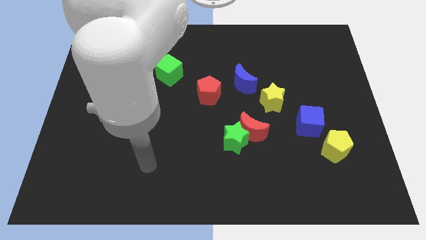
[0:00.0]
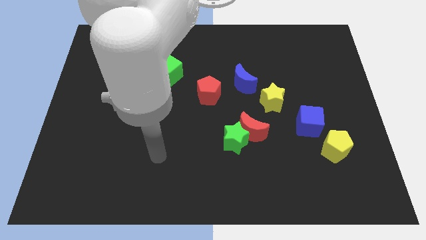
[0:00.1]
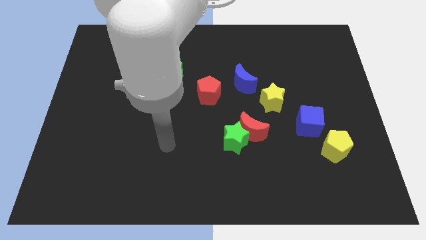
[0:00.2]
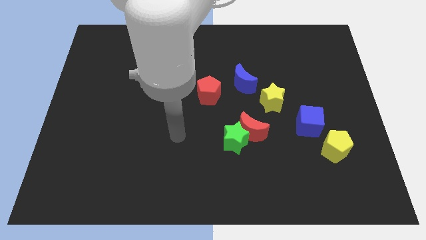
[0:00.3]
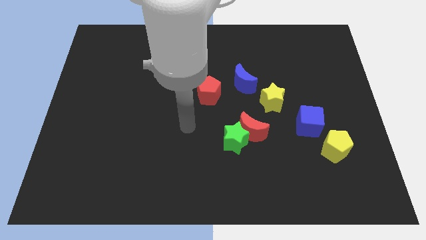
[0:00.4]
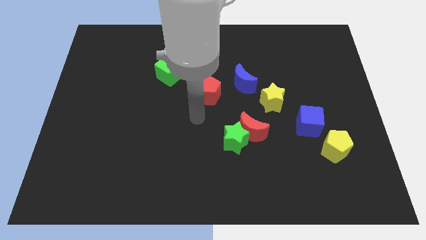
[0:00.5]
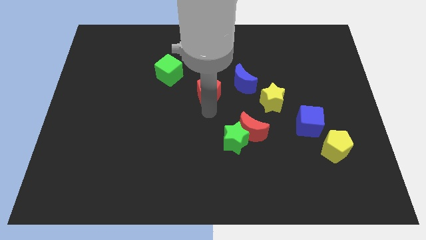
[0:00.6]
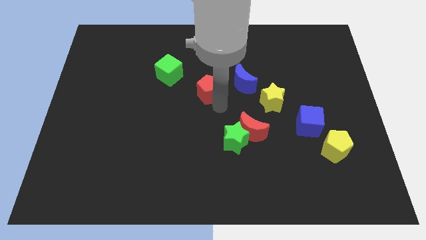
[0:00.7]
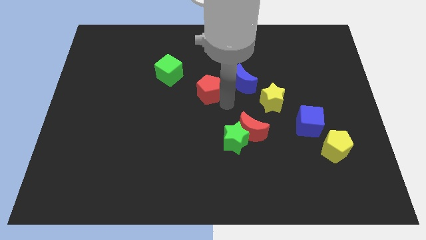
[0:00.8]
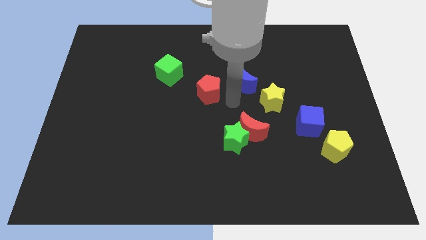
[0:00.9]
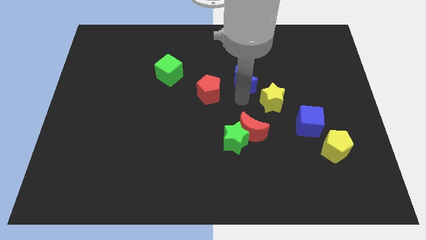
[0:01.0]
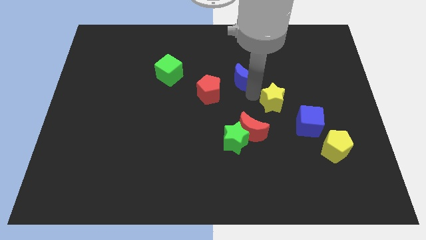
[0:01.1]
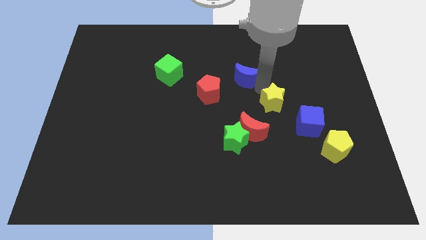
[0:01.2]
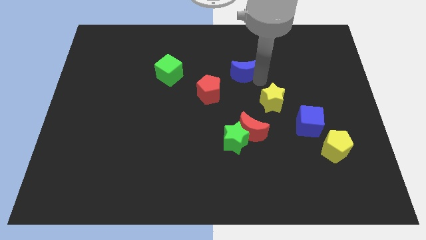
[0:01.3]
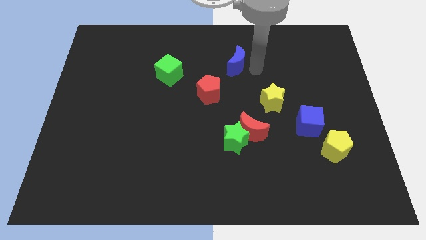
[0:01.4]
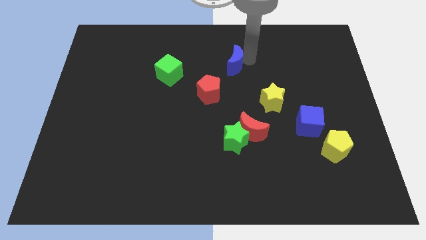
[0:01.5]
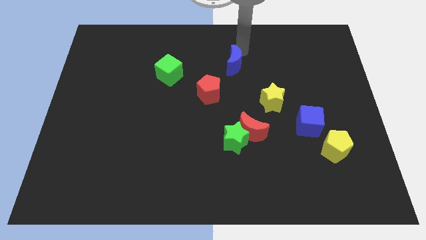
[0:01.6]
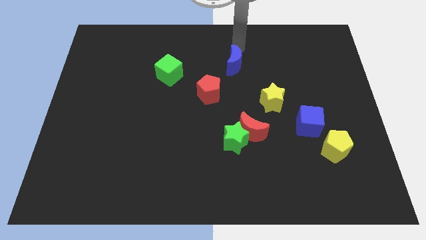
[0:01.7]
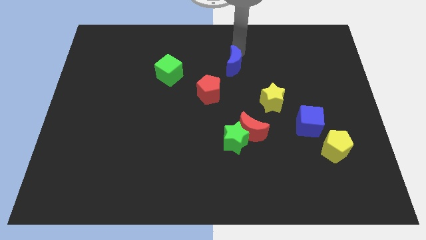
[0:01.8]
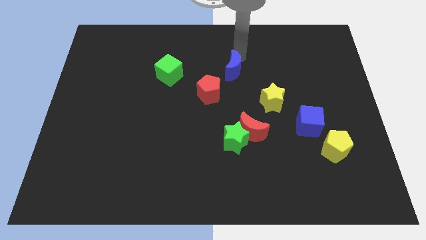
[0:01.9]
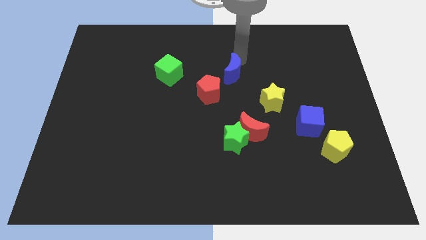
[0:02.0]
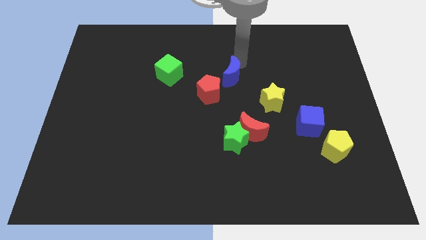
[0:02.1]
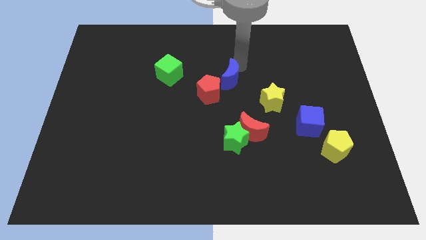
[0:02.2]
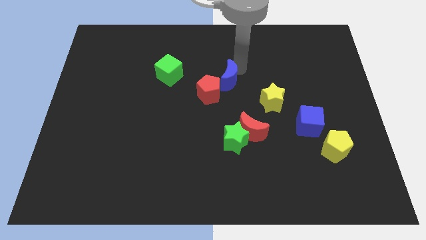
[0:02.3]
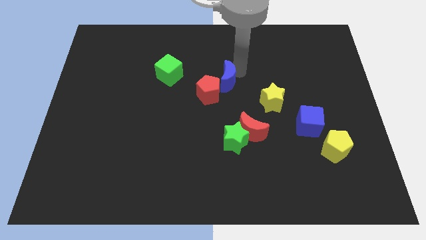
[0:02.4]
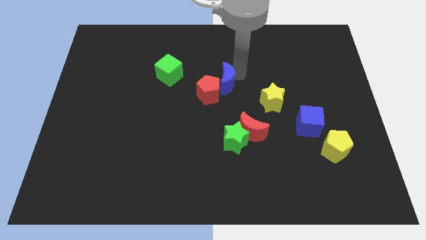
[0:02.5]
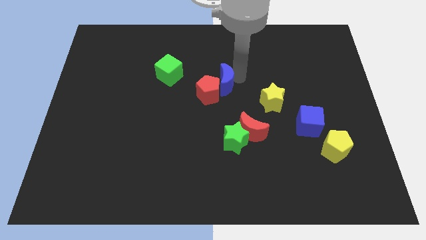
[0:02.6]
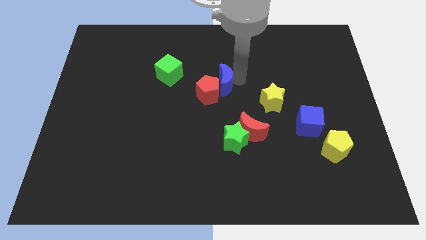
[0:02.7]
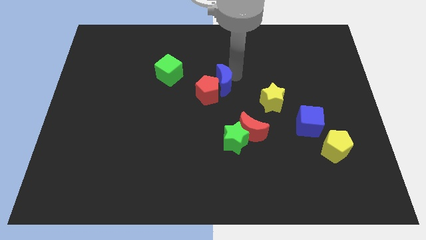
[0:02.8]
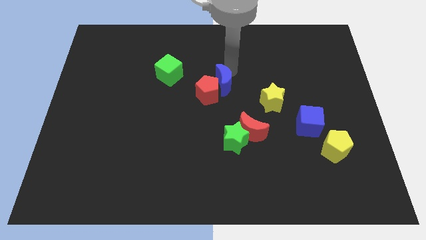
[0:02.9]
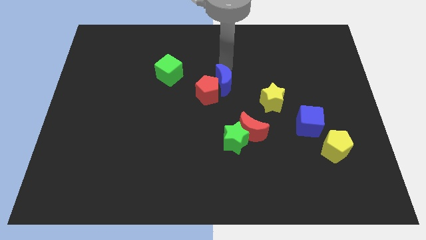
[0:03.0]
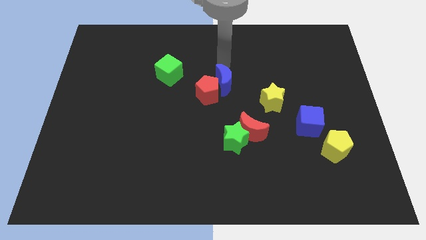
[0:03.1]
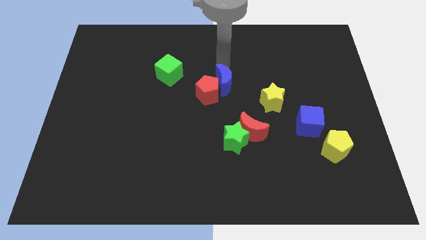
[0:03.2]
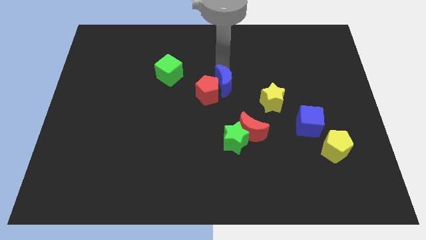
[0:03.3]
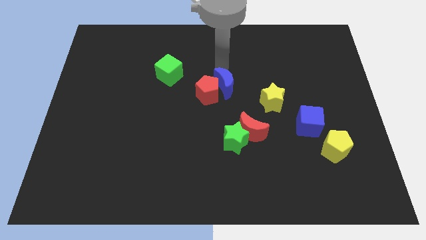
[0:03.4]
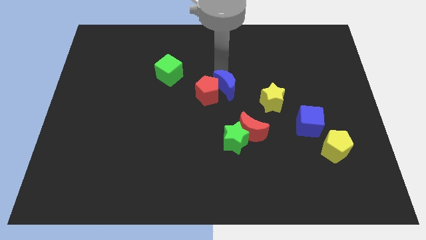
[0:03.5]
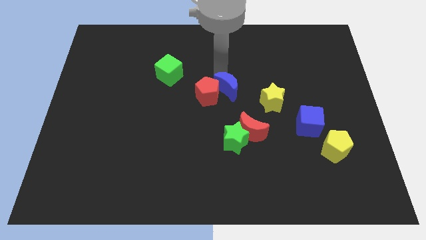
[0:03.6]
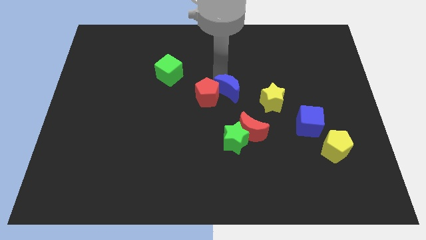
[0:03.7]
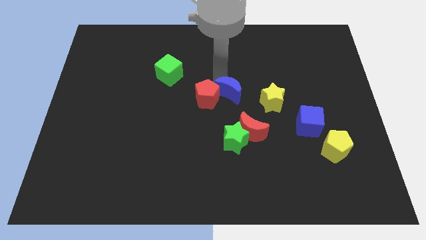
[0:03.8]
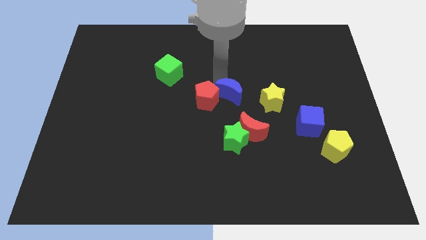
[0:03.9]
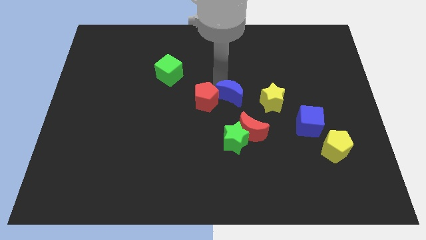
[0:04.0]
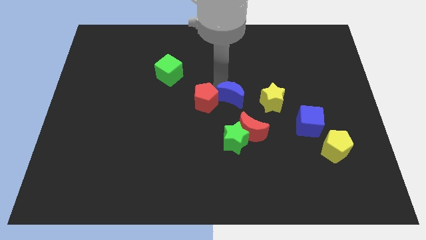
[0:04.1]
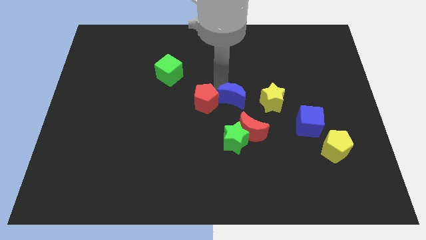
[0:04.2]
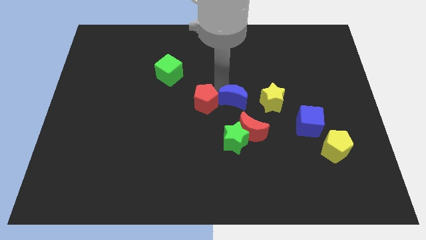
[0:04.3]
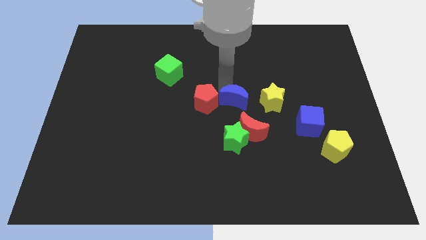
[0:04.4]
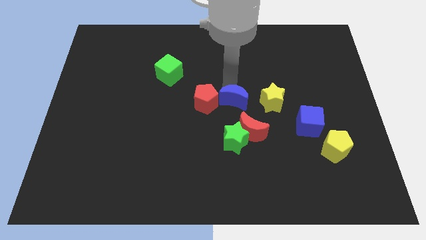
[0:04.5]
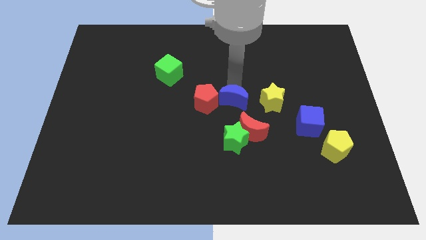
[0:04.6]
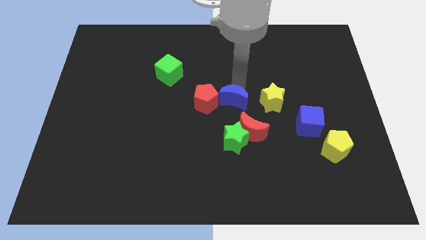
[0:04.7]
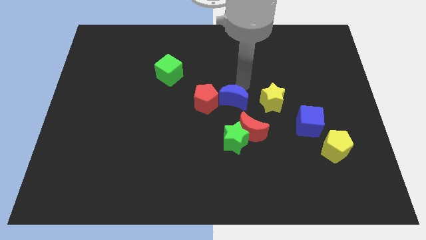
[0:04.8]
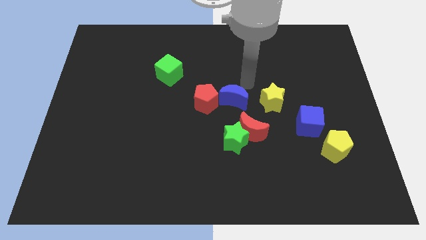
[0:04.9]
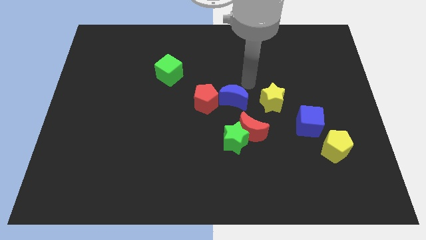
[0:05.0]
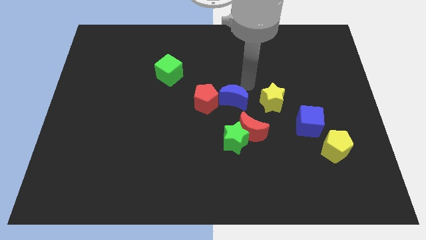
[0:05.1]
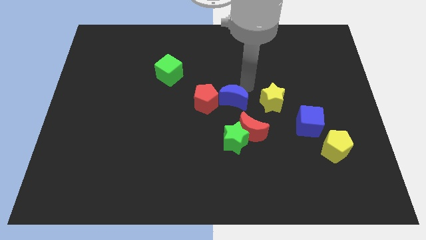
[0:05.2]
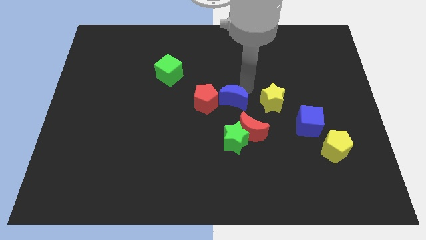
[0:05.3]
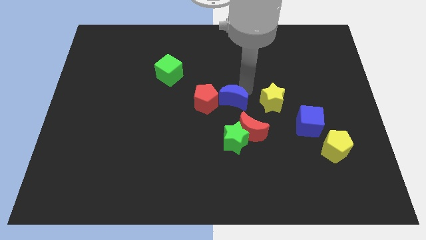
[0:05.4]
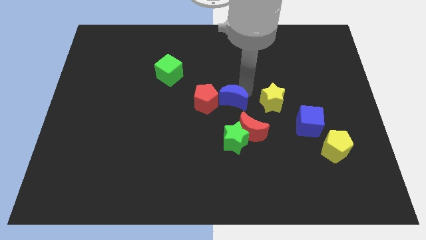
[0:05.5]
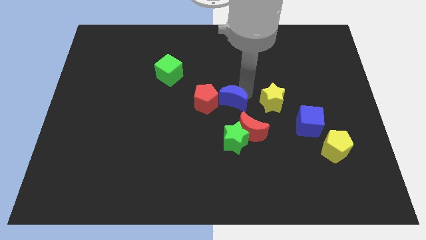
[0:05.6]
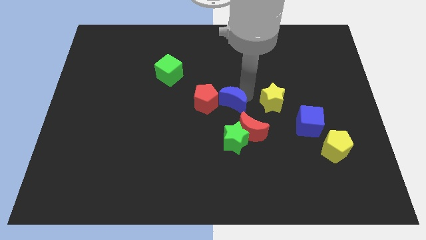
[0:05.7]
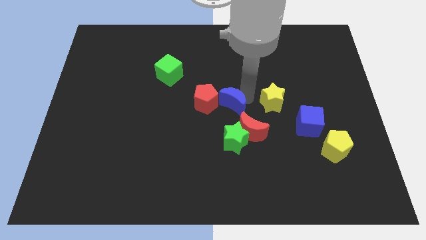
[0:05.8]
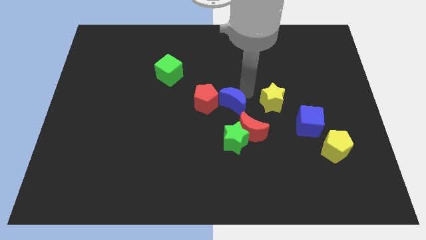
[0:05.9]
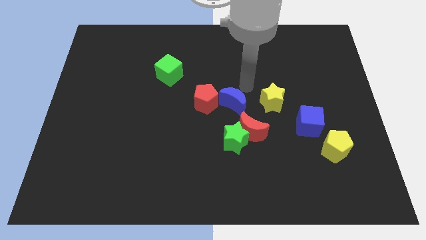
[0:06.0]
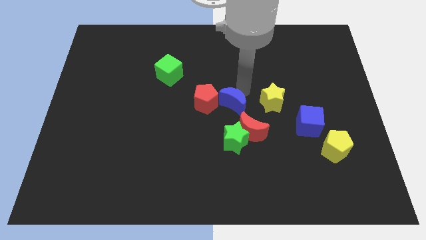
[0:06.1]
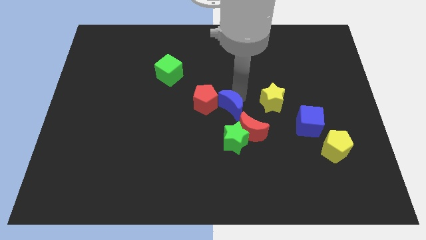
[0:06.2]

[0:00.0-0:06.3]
slide the blue moon a bit downwards

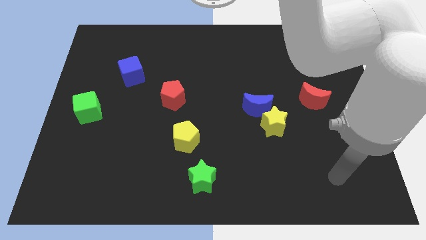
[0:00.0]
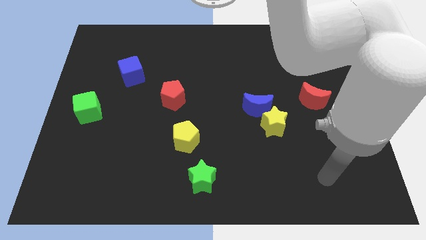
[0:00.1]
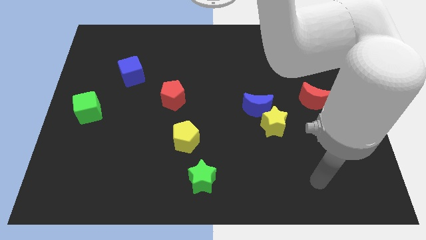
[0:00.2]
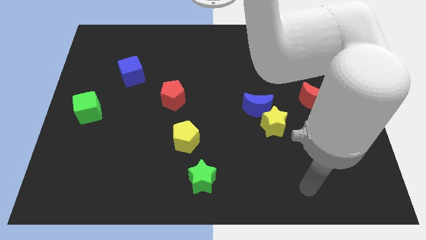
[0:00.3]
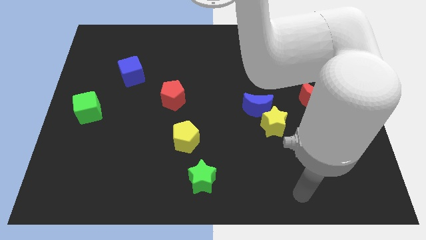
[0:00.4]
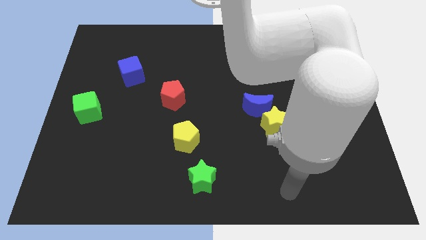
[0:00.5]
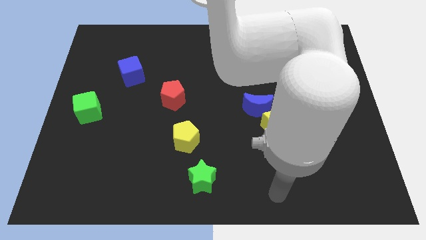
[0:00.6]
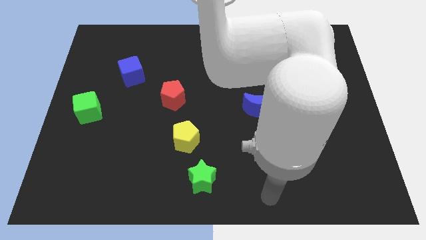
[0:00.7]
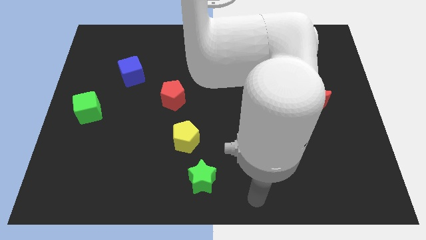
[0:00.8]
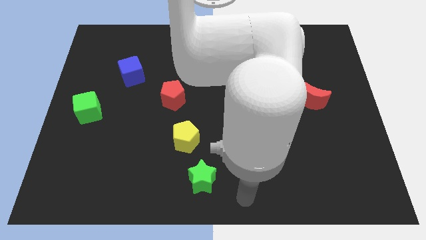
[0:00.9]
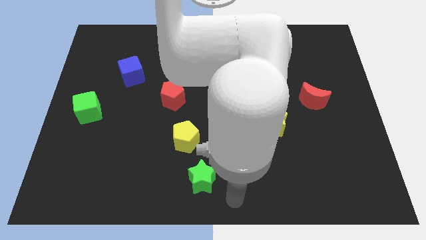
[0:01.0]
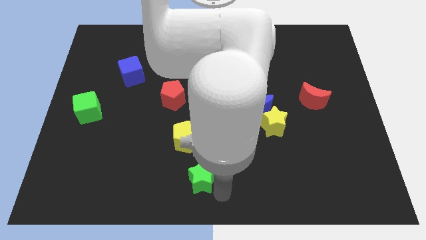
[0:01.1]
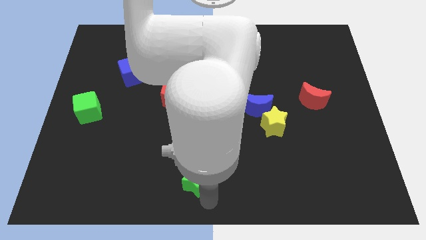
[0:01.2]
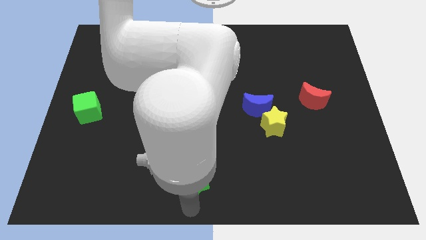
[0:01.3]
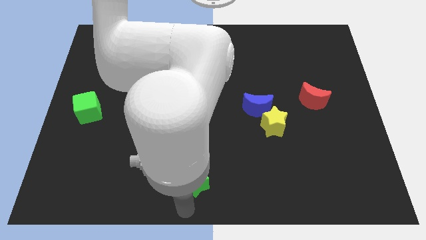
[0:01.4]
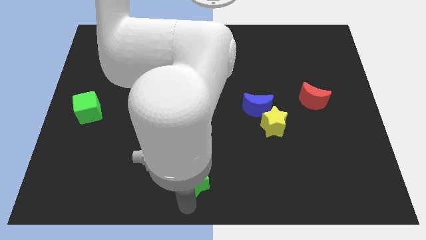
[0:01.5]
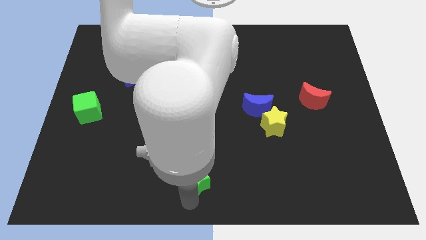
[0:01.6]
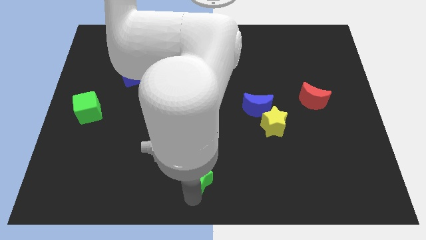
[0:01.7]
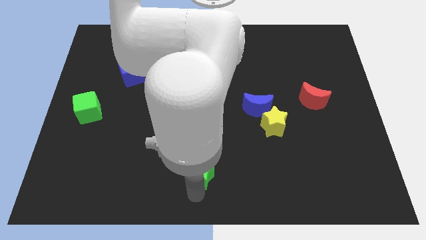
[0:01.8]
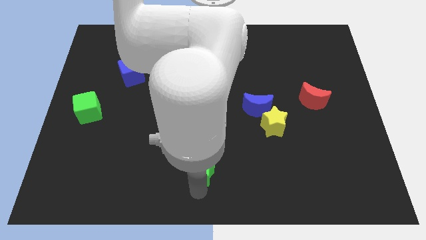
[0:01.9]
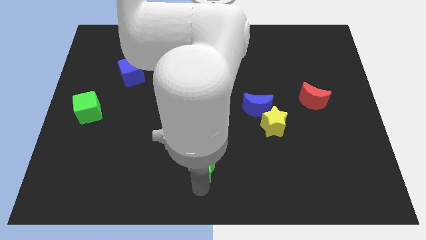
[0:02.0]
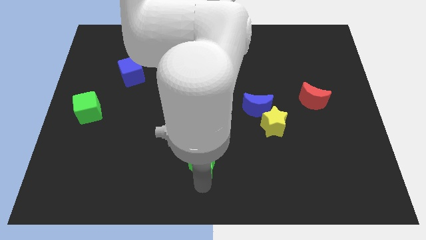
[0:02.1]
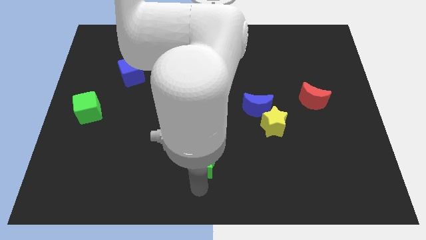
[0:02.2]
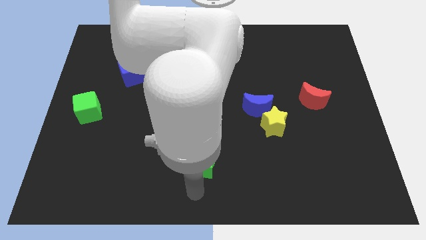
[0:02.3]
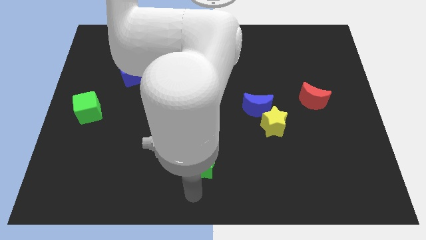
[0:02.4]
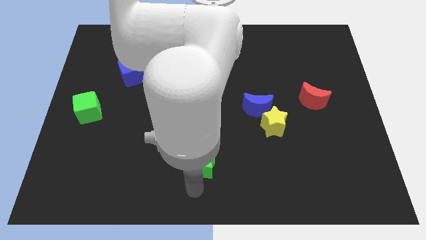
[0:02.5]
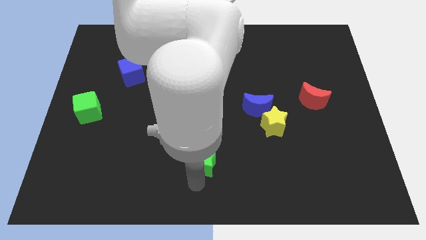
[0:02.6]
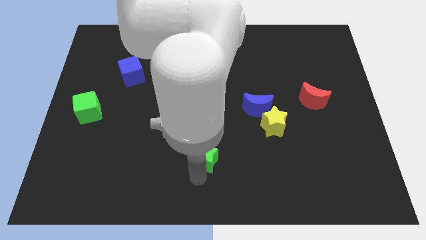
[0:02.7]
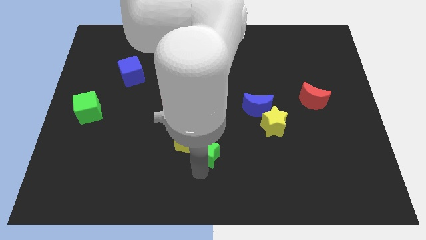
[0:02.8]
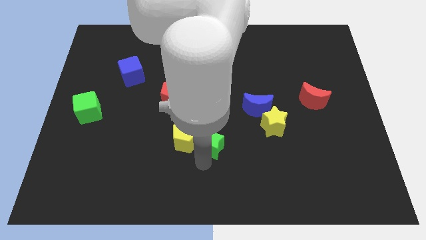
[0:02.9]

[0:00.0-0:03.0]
push the green star a bit up
